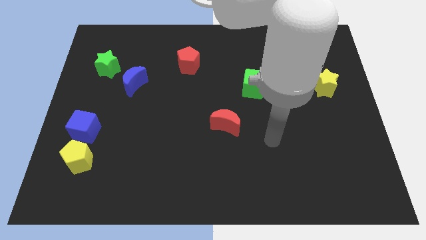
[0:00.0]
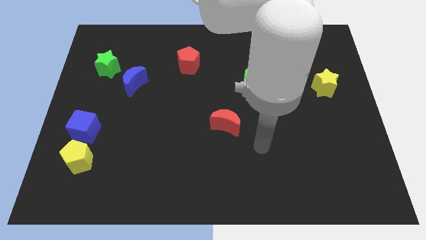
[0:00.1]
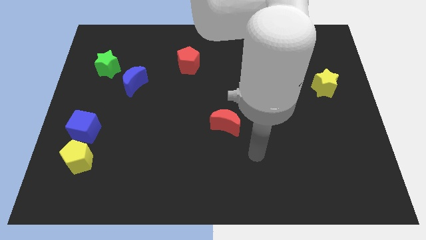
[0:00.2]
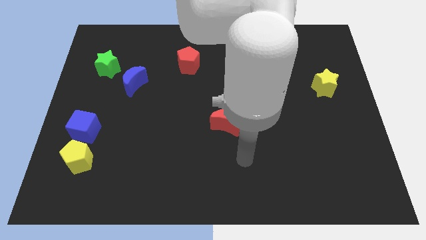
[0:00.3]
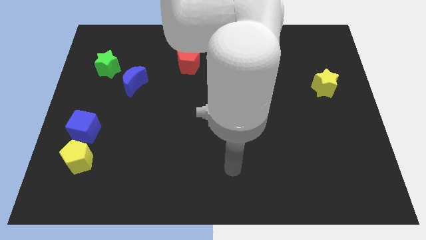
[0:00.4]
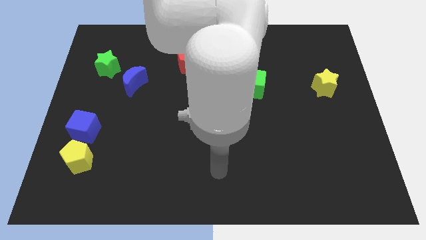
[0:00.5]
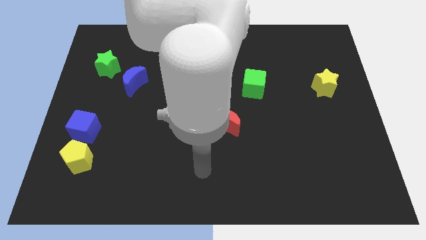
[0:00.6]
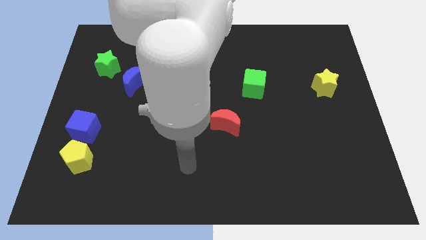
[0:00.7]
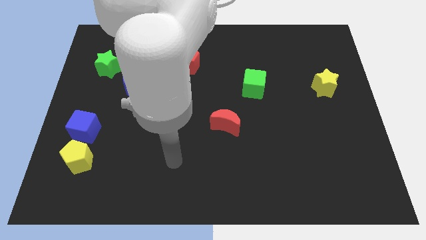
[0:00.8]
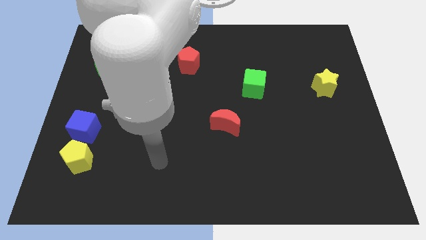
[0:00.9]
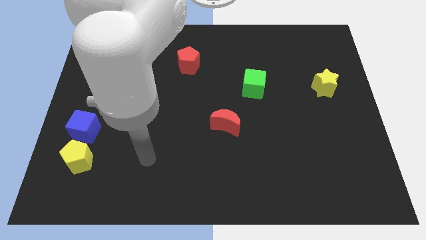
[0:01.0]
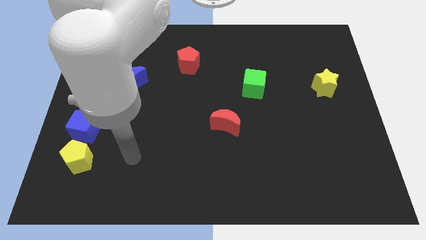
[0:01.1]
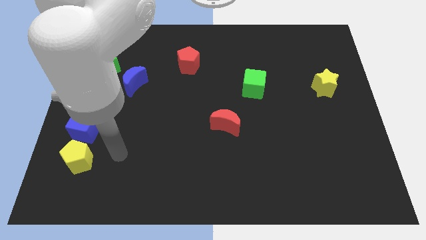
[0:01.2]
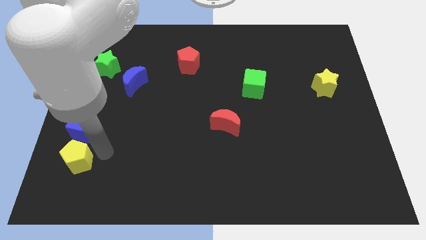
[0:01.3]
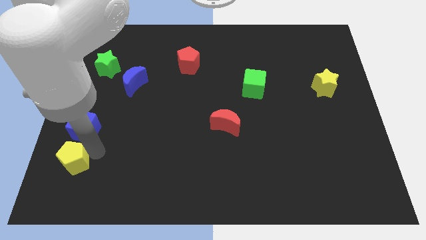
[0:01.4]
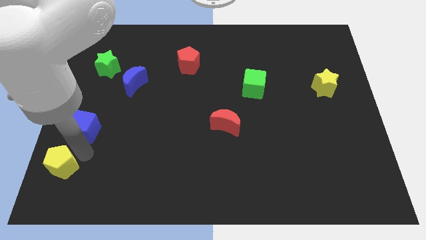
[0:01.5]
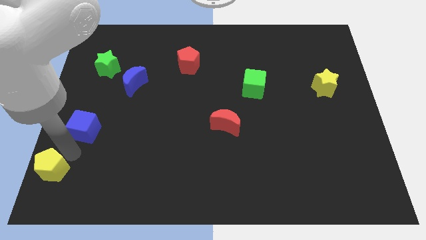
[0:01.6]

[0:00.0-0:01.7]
move the blue cube away from the yellow pentagon

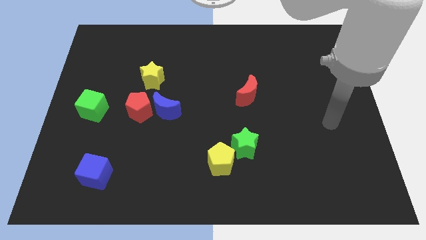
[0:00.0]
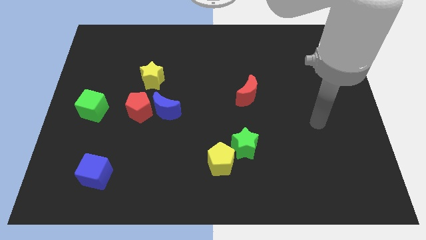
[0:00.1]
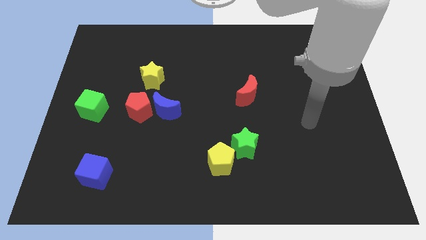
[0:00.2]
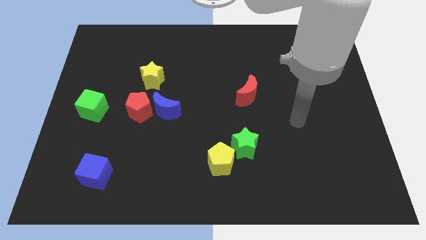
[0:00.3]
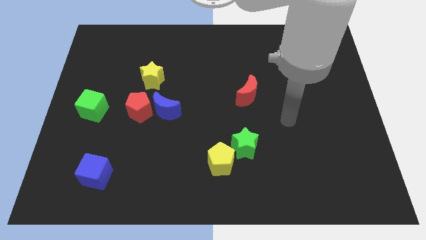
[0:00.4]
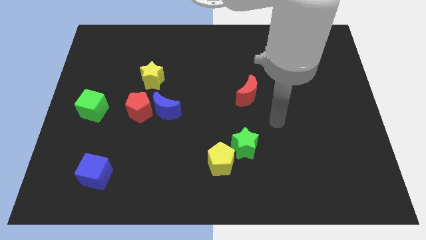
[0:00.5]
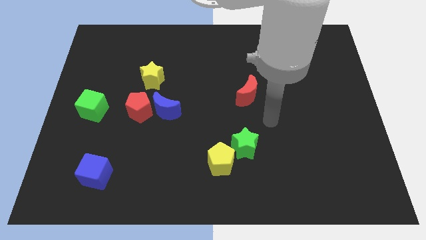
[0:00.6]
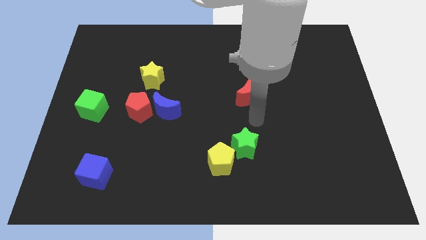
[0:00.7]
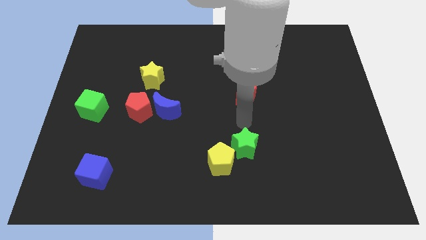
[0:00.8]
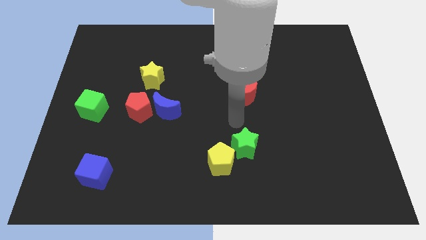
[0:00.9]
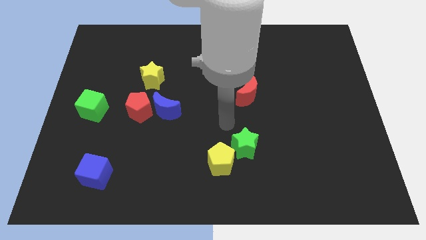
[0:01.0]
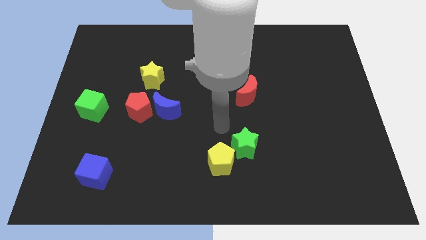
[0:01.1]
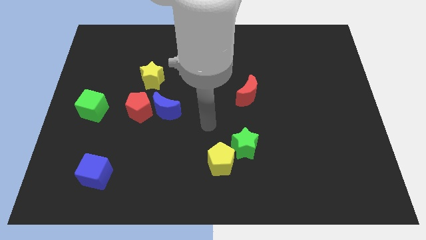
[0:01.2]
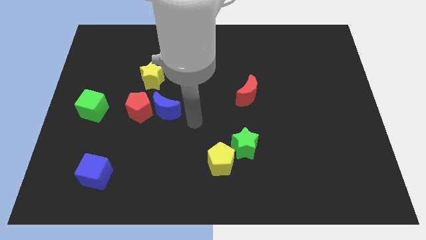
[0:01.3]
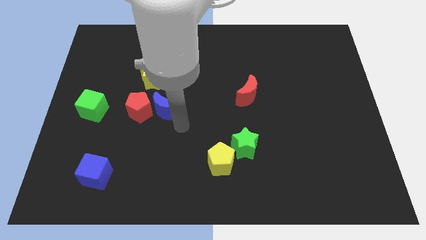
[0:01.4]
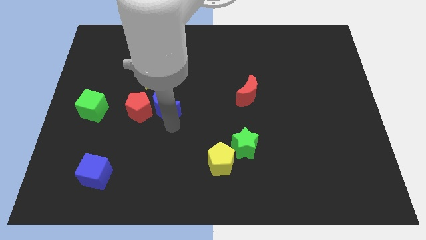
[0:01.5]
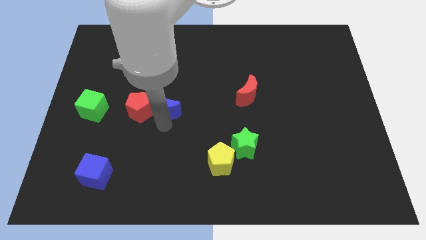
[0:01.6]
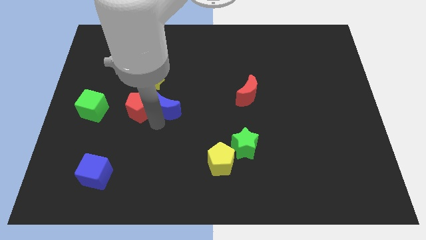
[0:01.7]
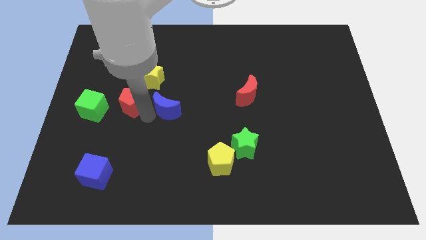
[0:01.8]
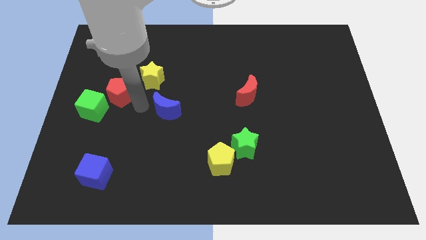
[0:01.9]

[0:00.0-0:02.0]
pull the blue moon apart from the red pentagon

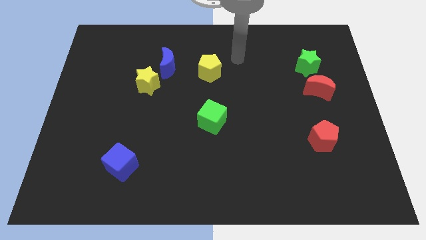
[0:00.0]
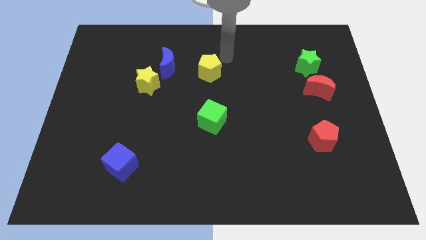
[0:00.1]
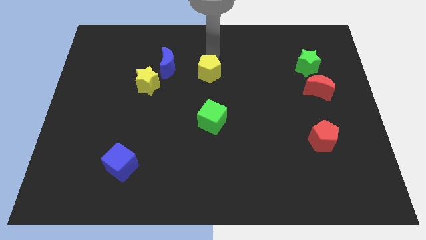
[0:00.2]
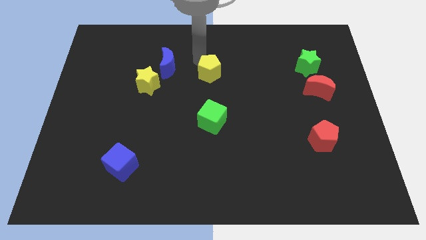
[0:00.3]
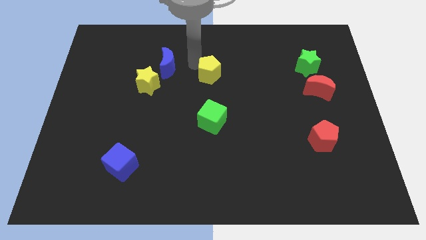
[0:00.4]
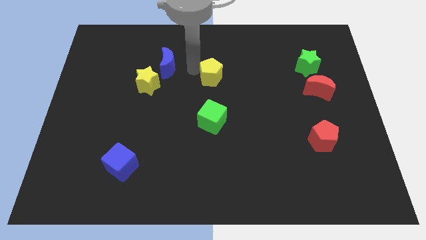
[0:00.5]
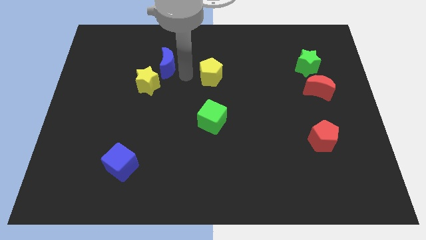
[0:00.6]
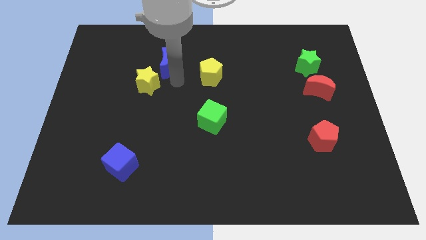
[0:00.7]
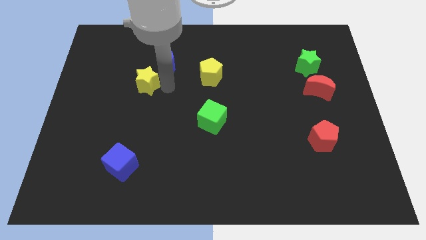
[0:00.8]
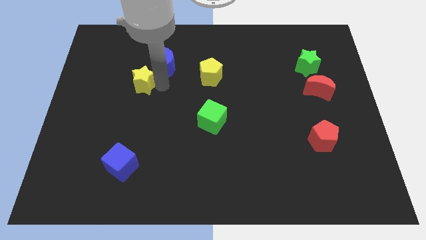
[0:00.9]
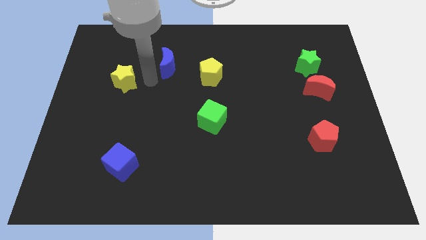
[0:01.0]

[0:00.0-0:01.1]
separate the blue moon from the yellow star

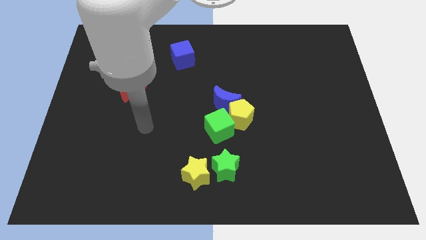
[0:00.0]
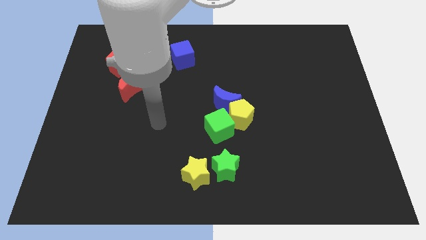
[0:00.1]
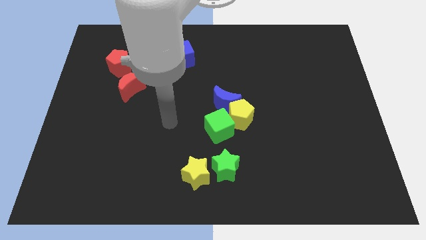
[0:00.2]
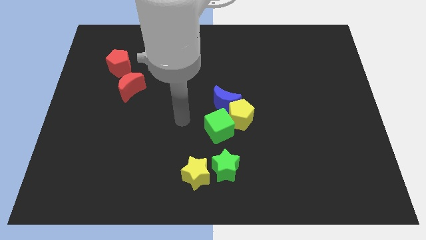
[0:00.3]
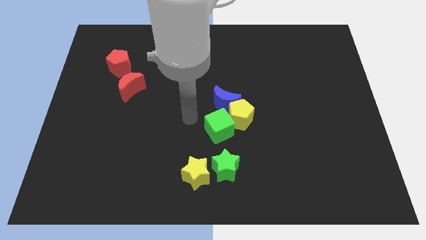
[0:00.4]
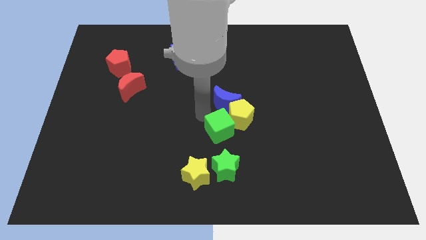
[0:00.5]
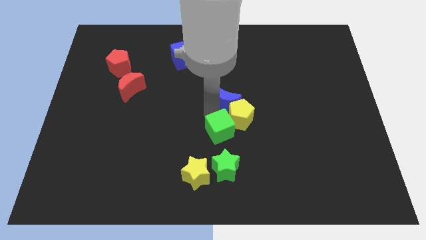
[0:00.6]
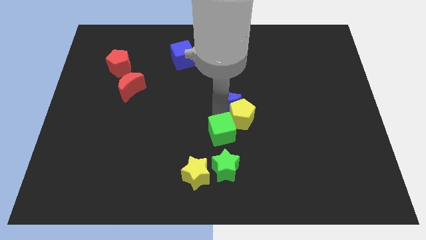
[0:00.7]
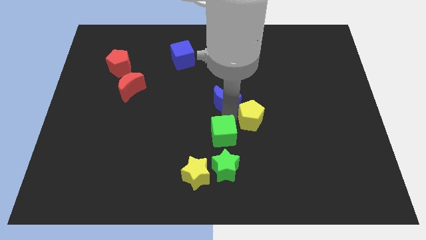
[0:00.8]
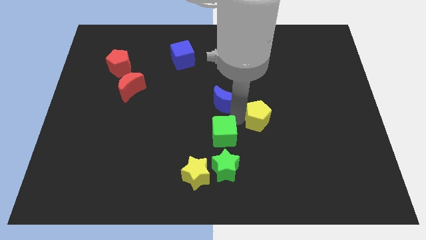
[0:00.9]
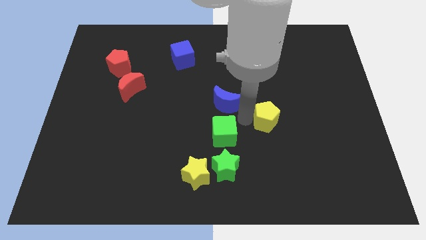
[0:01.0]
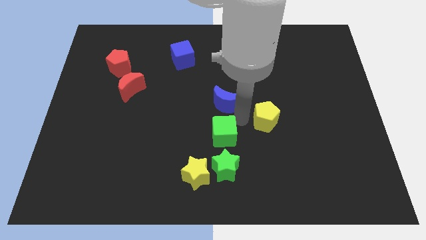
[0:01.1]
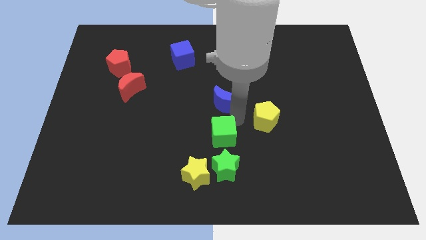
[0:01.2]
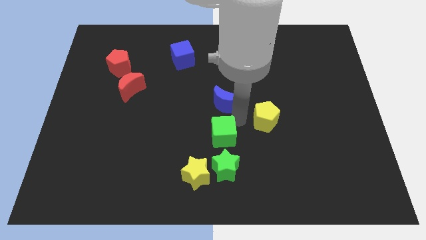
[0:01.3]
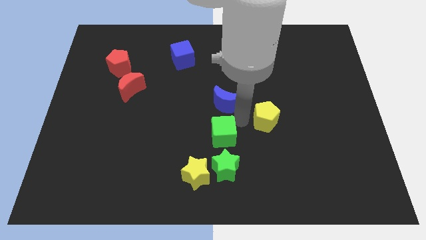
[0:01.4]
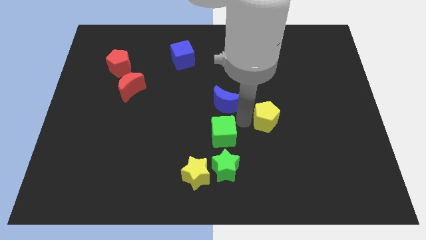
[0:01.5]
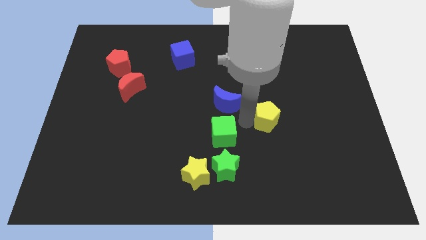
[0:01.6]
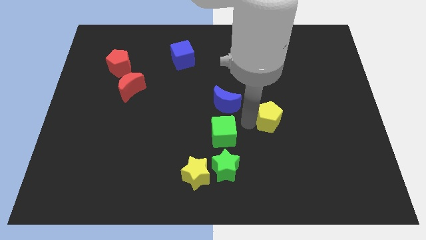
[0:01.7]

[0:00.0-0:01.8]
move the yellow pentagon away from the blue moon and green cube

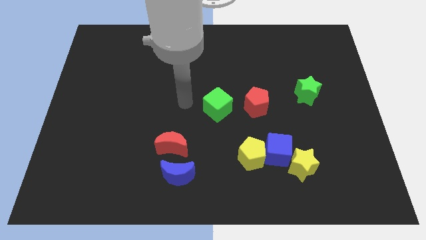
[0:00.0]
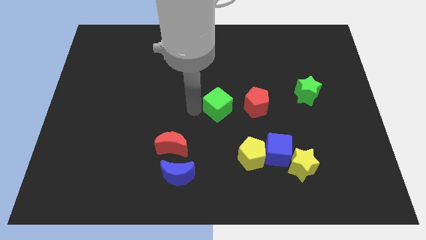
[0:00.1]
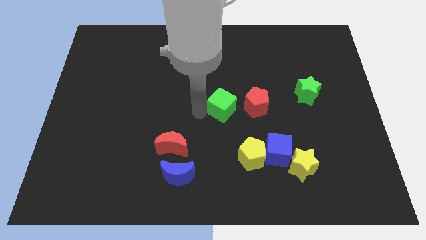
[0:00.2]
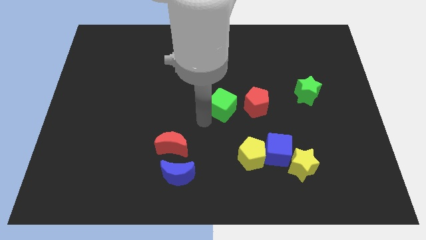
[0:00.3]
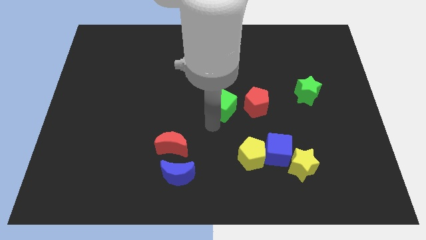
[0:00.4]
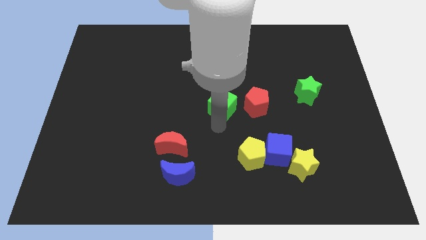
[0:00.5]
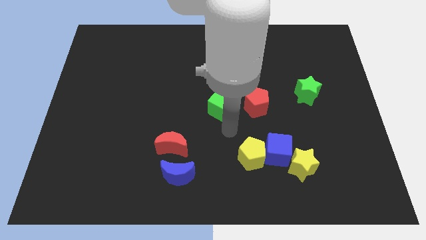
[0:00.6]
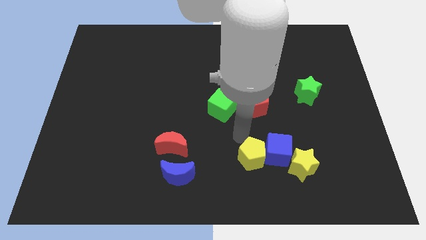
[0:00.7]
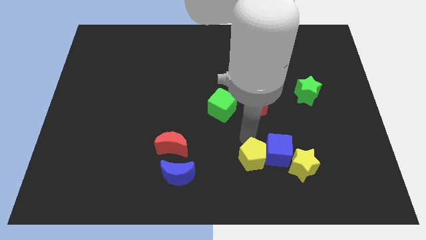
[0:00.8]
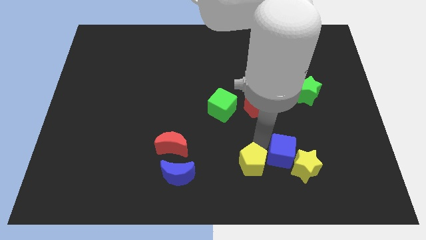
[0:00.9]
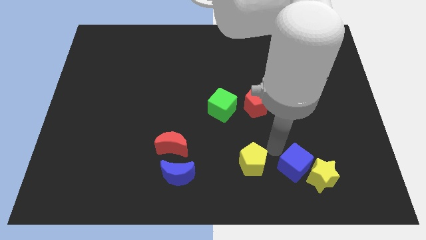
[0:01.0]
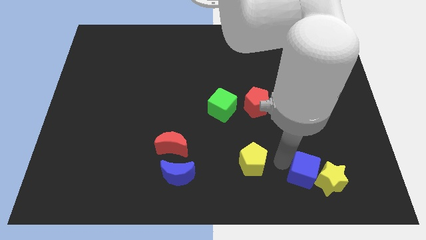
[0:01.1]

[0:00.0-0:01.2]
pull the yellow pentagon apart from the blue cube

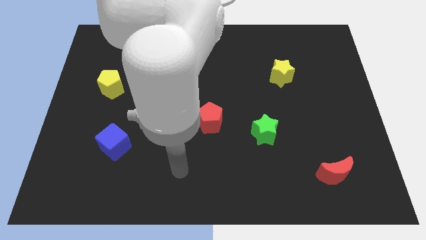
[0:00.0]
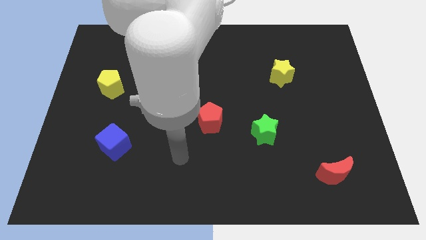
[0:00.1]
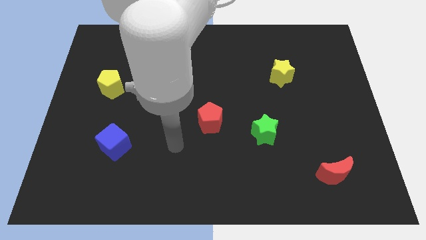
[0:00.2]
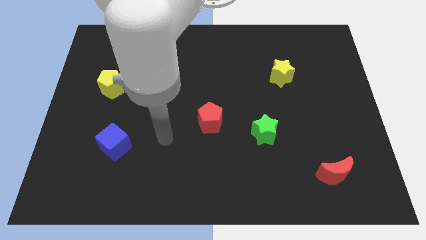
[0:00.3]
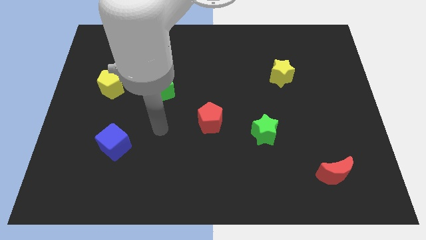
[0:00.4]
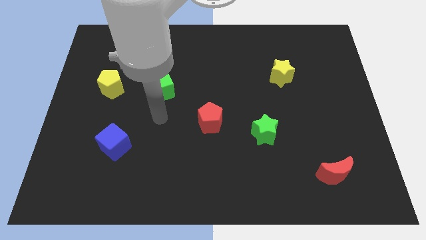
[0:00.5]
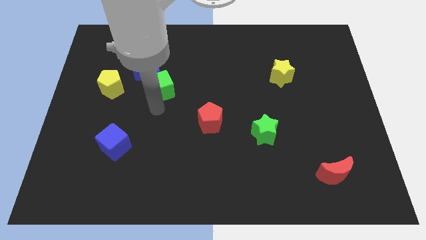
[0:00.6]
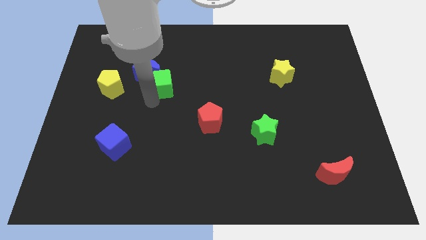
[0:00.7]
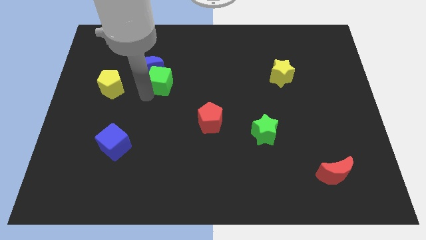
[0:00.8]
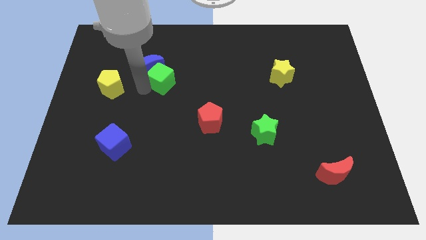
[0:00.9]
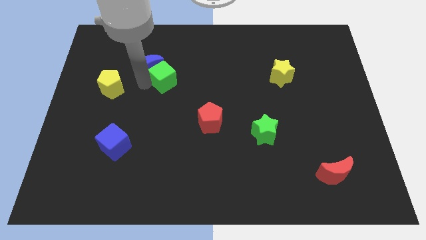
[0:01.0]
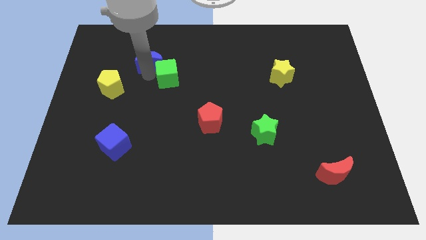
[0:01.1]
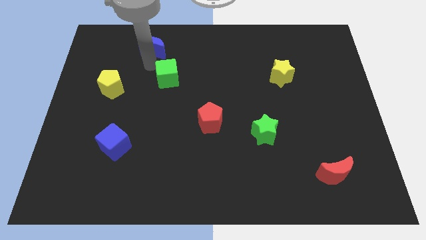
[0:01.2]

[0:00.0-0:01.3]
pull the green cube apart from the blue moon

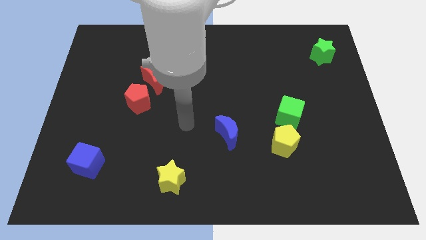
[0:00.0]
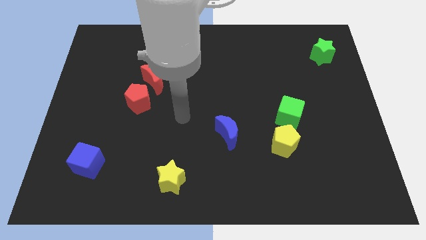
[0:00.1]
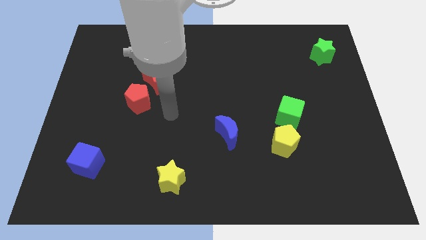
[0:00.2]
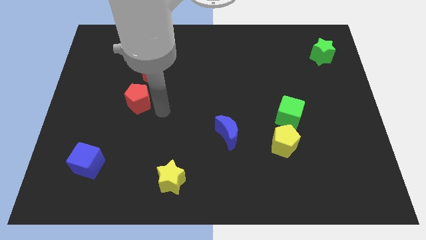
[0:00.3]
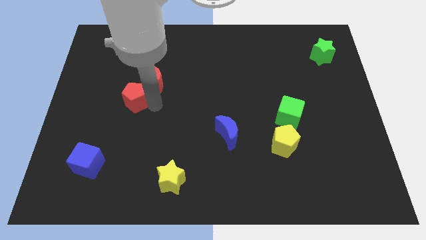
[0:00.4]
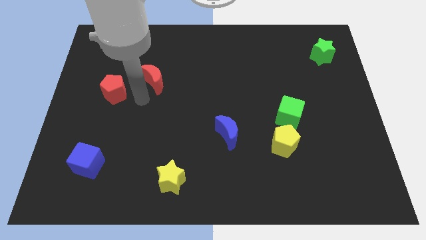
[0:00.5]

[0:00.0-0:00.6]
move the red moon away from the red pentagon
